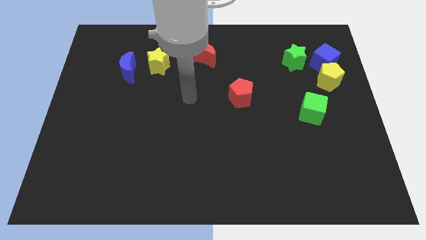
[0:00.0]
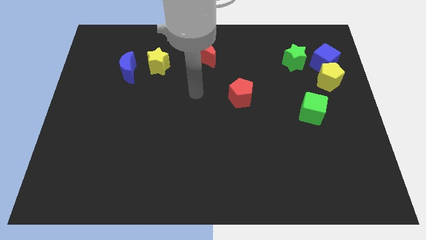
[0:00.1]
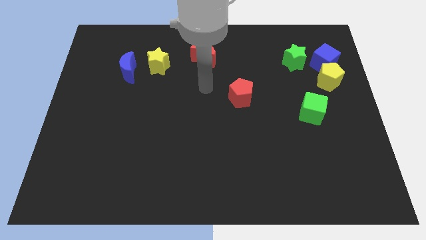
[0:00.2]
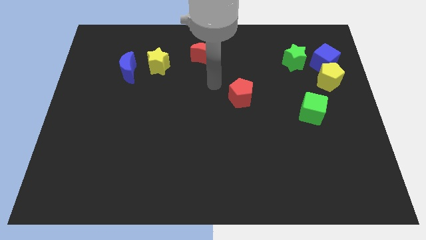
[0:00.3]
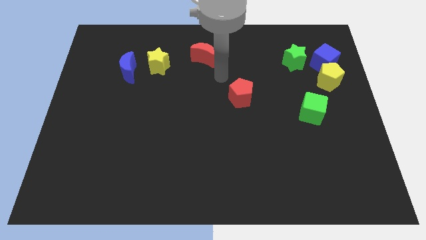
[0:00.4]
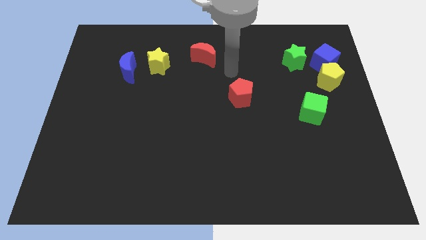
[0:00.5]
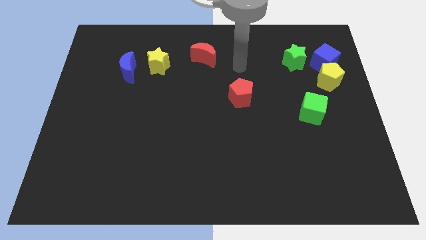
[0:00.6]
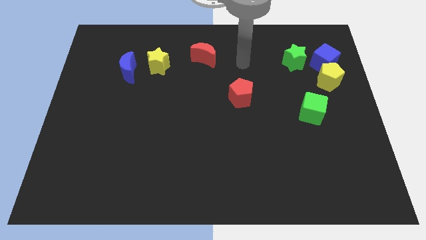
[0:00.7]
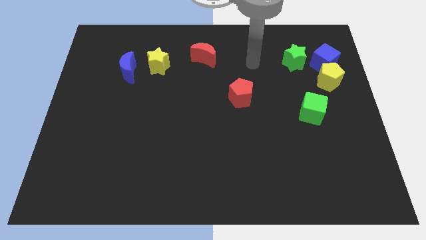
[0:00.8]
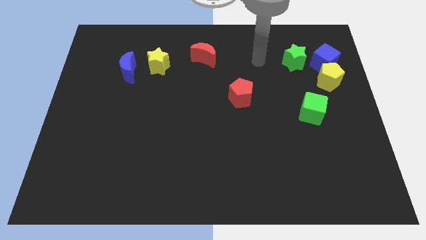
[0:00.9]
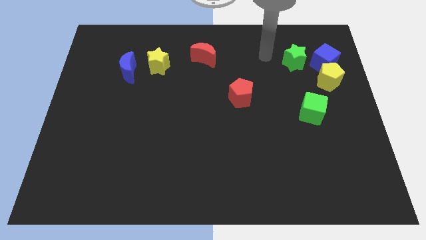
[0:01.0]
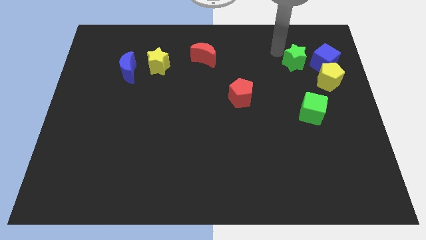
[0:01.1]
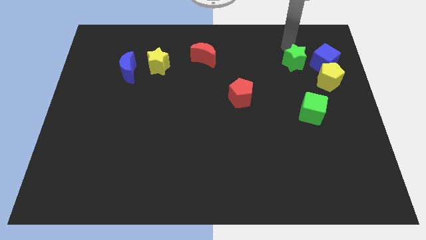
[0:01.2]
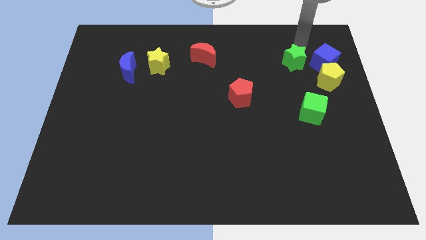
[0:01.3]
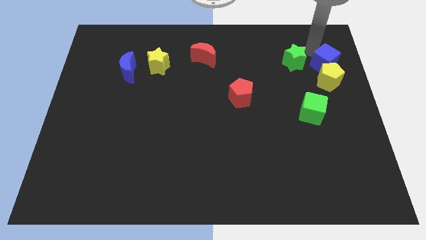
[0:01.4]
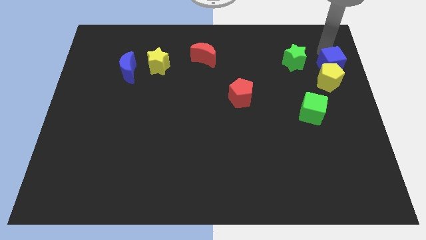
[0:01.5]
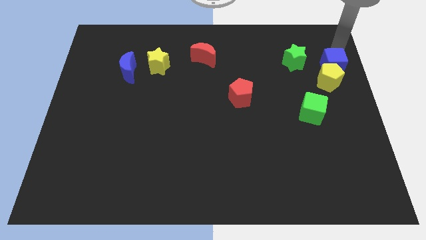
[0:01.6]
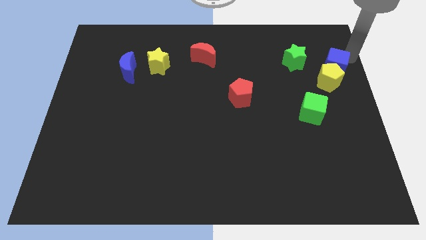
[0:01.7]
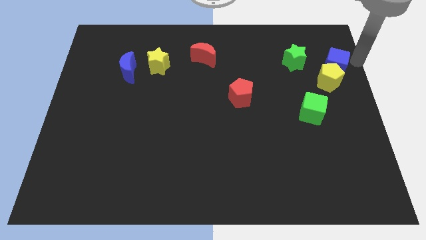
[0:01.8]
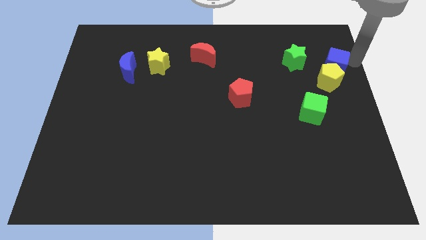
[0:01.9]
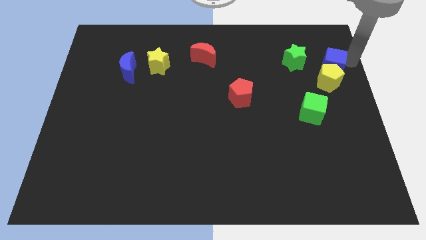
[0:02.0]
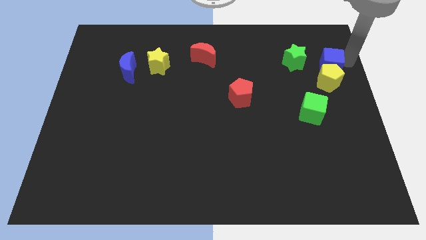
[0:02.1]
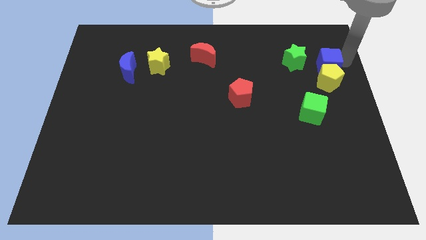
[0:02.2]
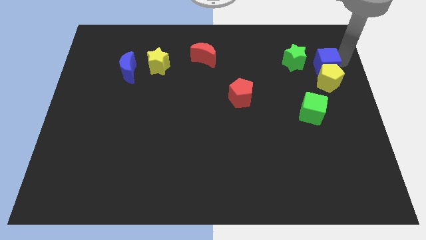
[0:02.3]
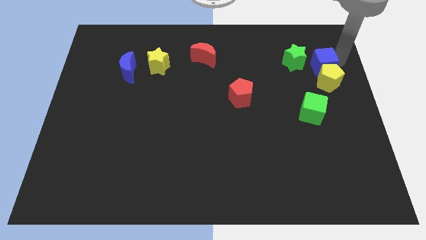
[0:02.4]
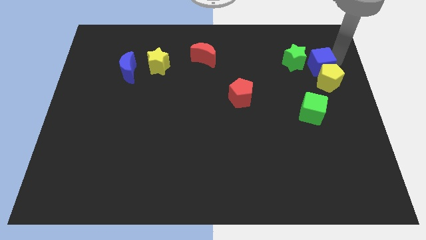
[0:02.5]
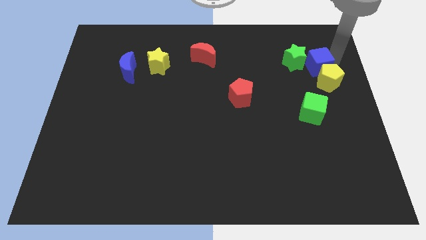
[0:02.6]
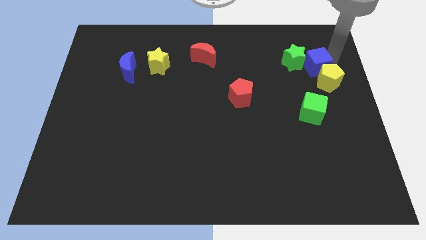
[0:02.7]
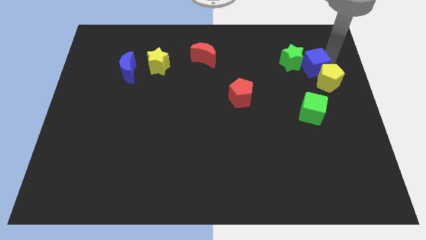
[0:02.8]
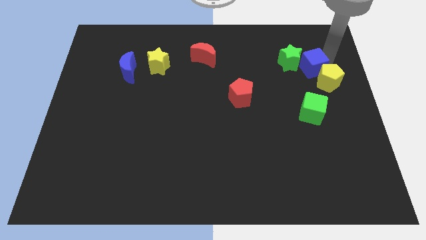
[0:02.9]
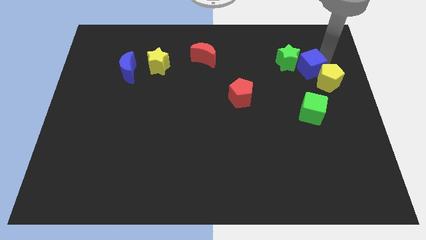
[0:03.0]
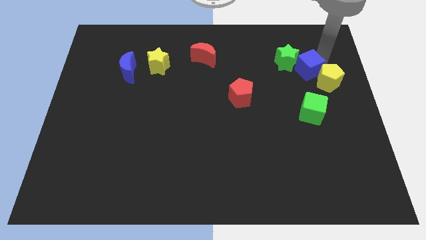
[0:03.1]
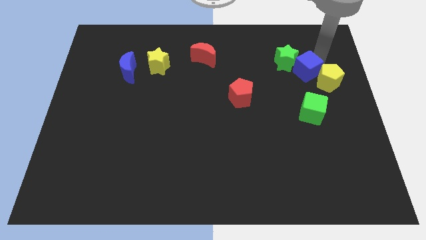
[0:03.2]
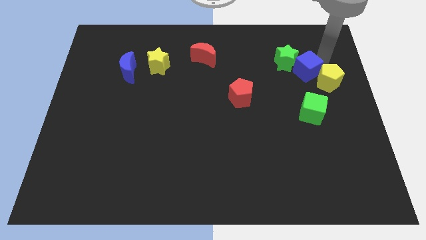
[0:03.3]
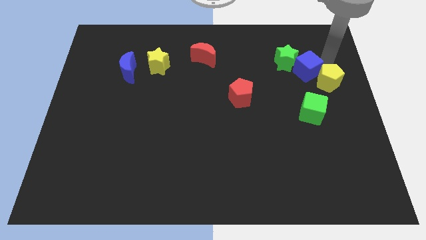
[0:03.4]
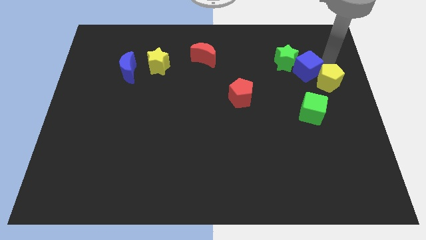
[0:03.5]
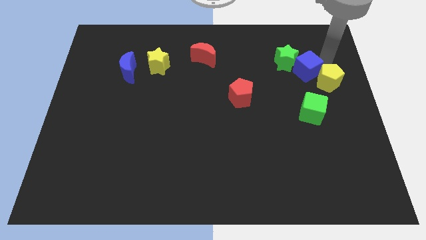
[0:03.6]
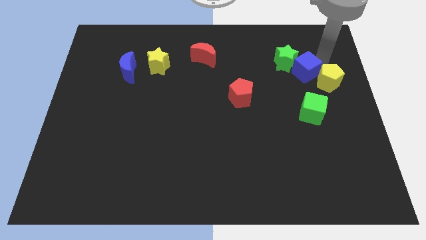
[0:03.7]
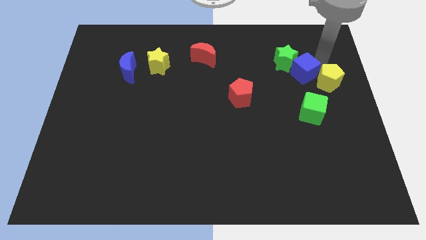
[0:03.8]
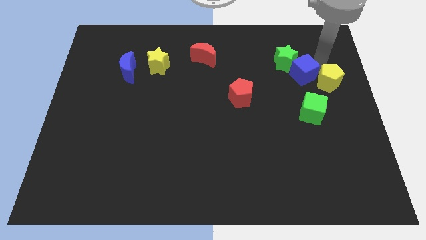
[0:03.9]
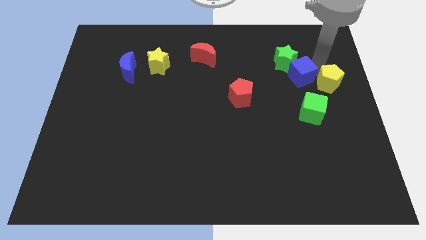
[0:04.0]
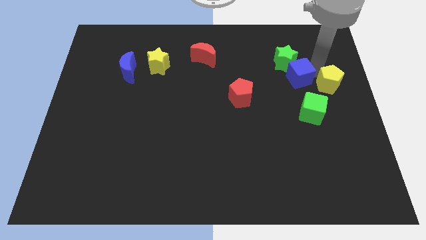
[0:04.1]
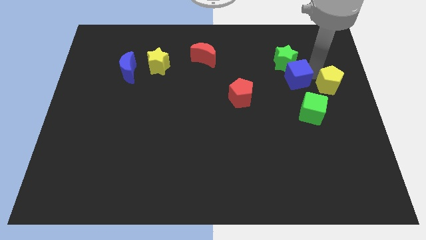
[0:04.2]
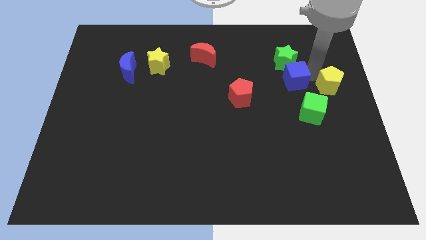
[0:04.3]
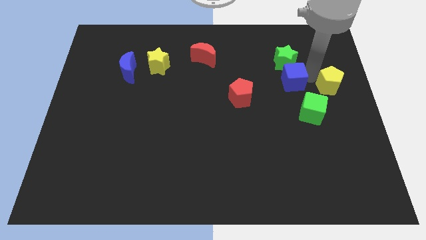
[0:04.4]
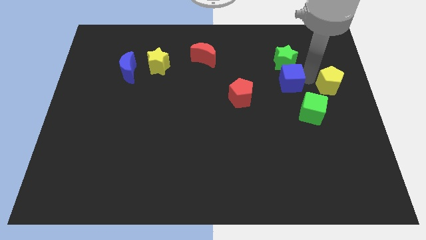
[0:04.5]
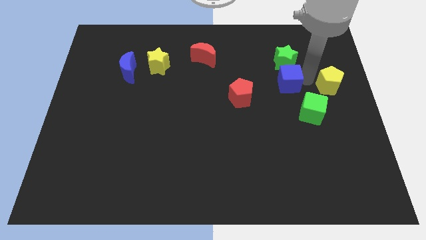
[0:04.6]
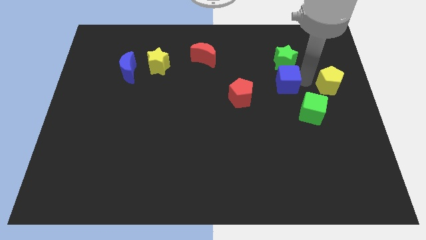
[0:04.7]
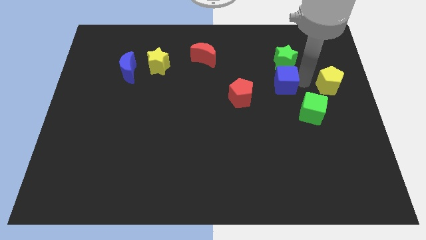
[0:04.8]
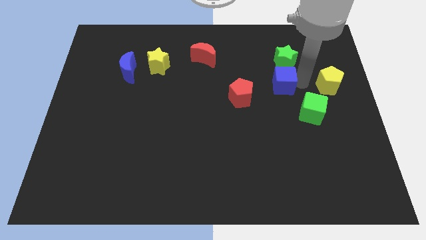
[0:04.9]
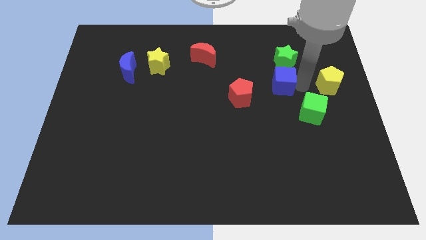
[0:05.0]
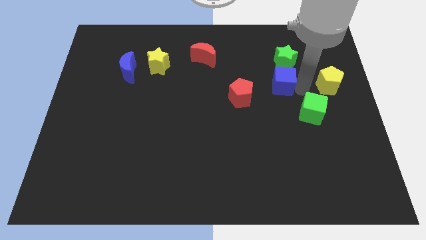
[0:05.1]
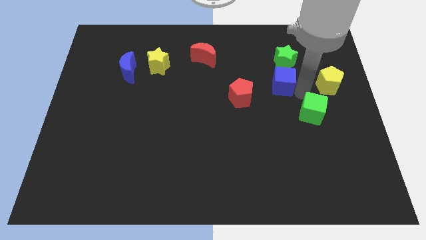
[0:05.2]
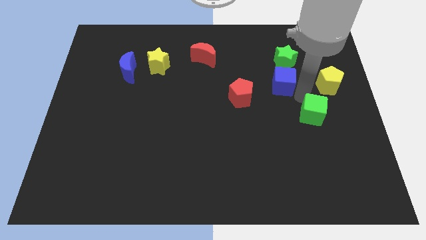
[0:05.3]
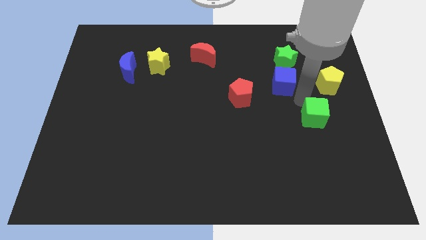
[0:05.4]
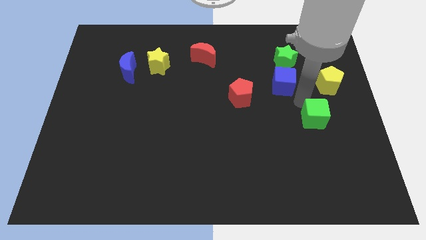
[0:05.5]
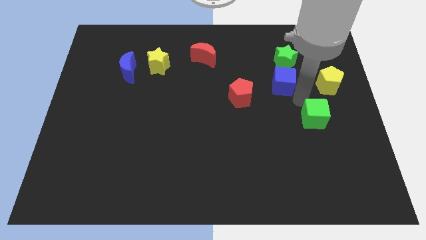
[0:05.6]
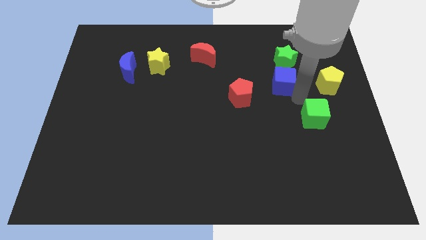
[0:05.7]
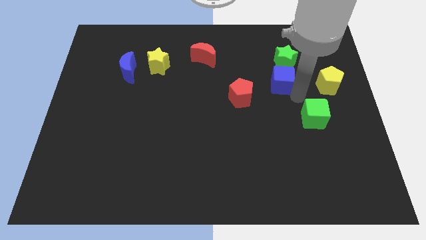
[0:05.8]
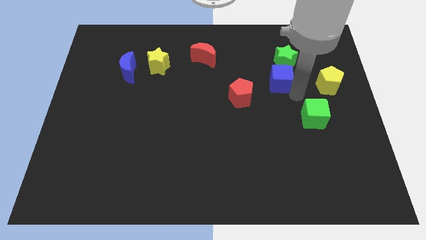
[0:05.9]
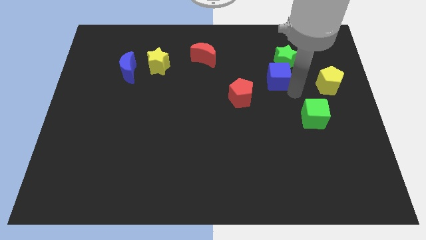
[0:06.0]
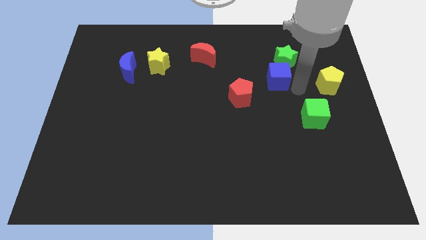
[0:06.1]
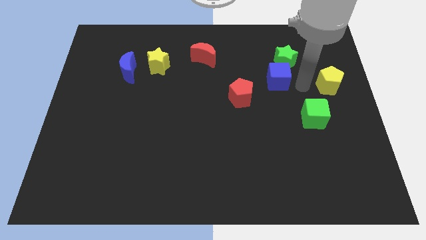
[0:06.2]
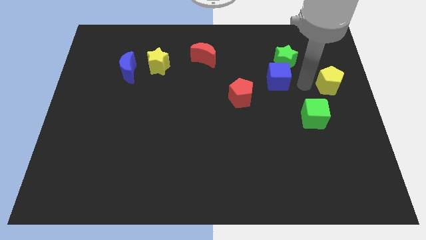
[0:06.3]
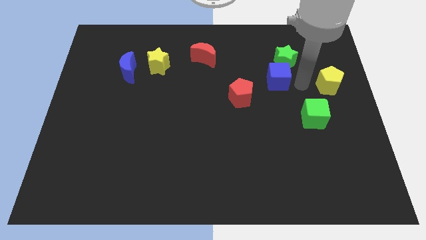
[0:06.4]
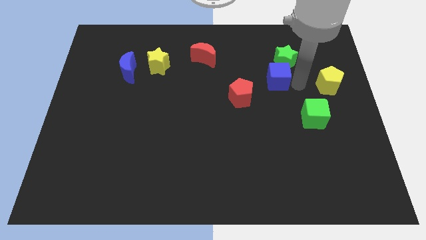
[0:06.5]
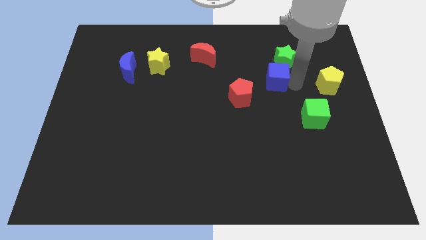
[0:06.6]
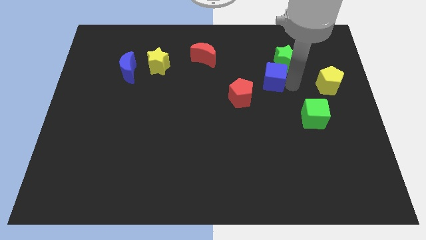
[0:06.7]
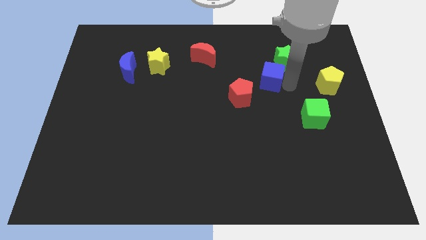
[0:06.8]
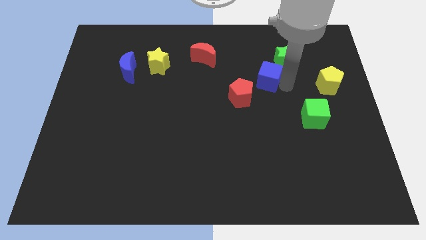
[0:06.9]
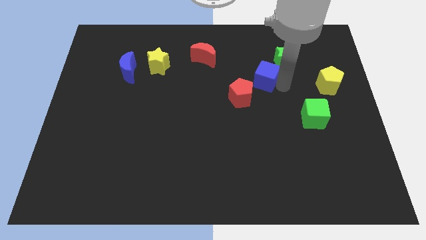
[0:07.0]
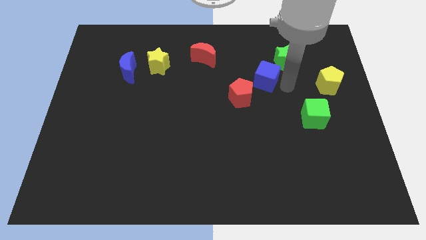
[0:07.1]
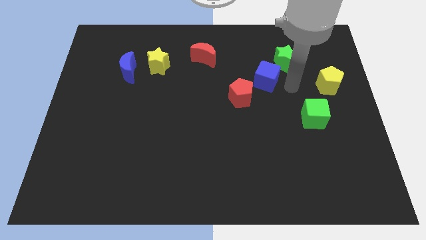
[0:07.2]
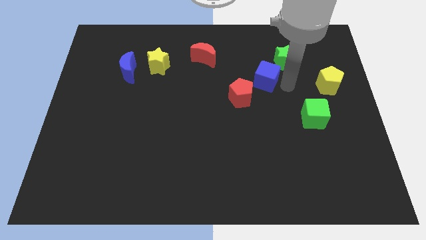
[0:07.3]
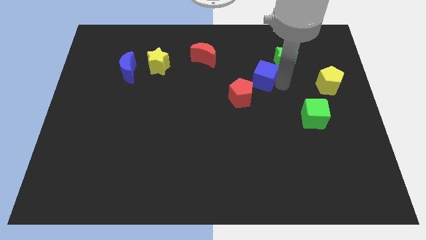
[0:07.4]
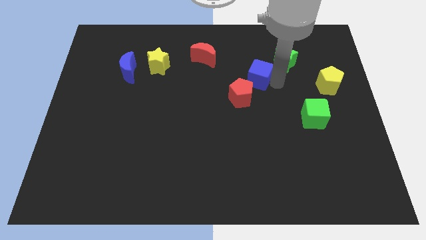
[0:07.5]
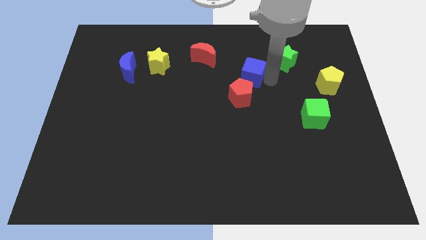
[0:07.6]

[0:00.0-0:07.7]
slide the blue cube to the center of the board
